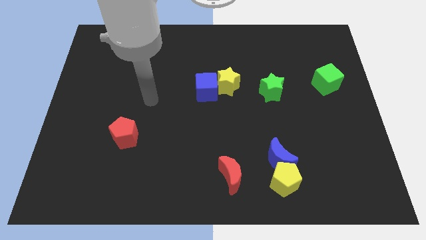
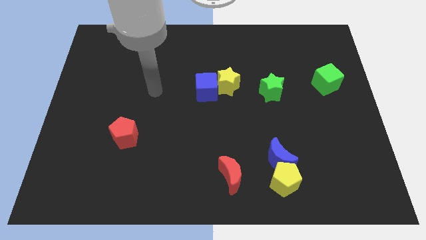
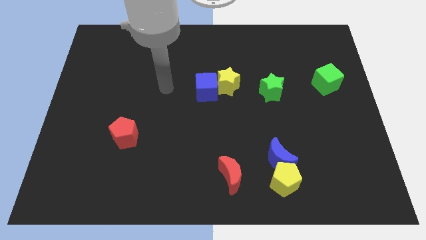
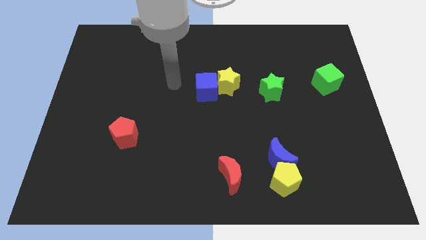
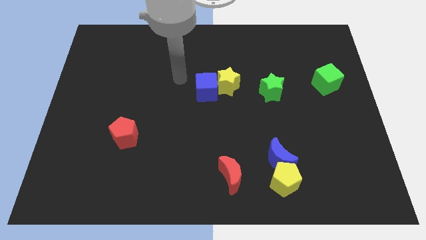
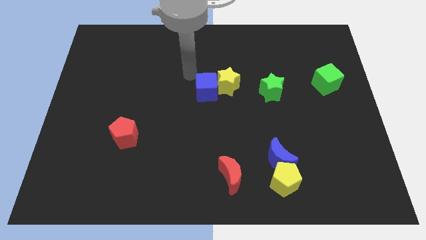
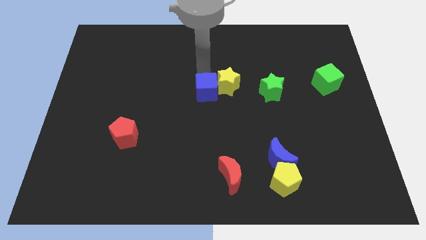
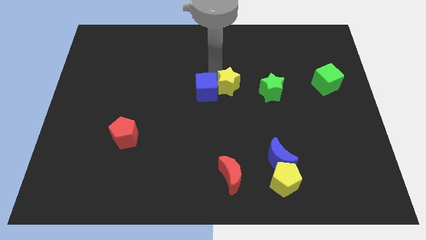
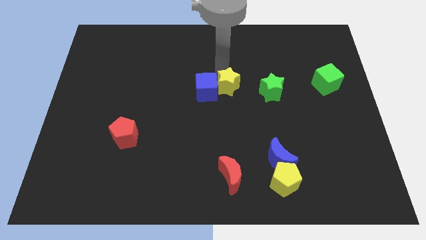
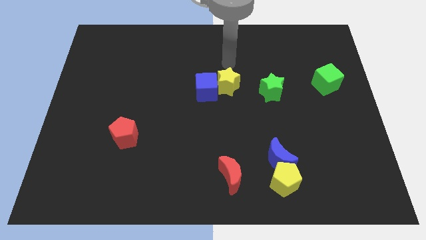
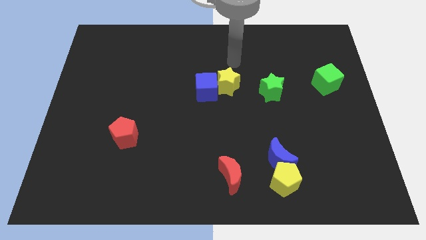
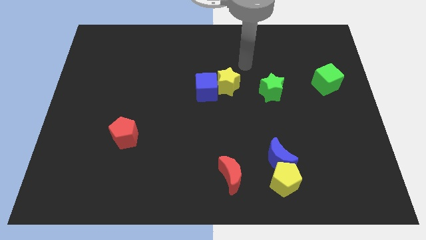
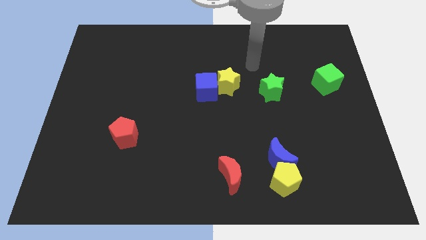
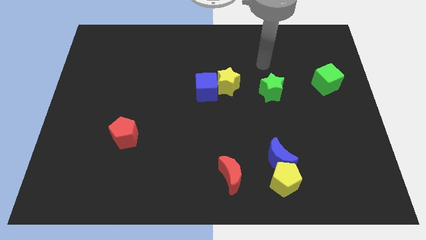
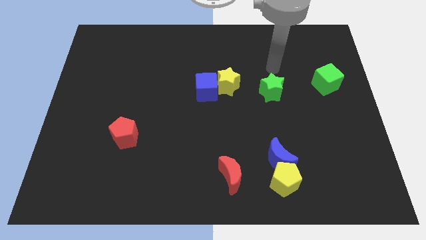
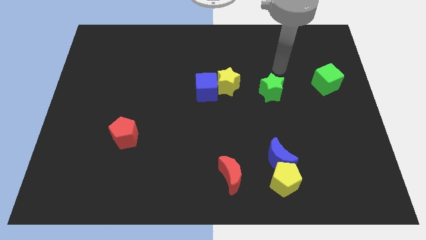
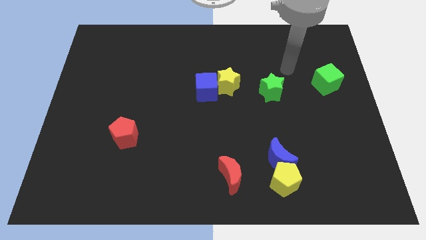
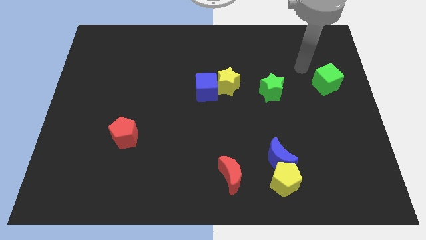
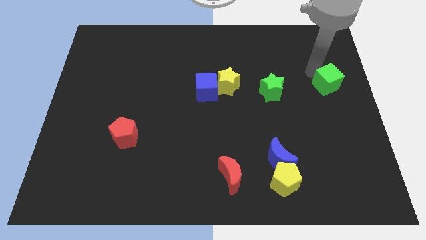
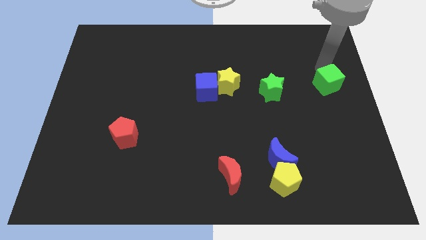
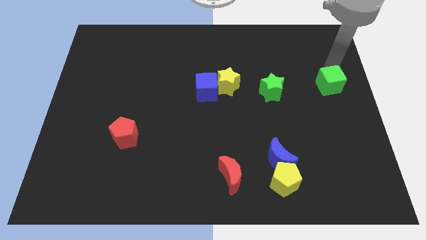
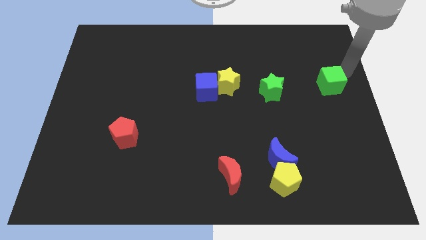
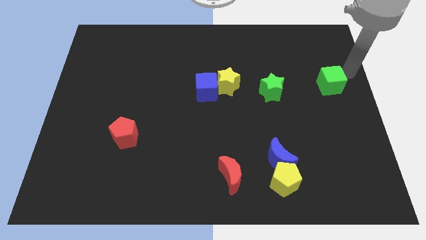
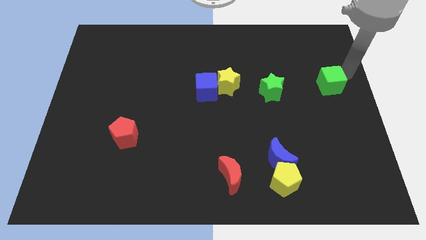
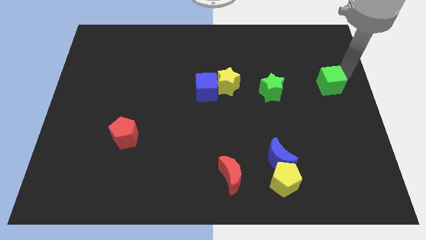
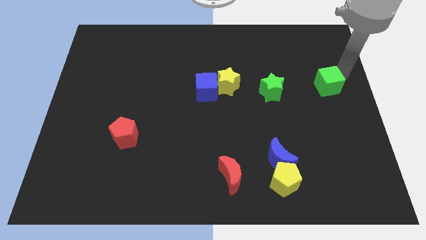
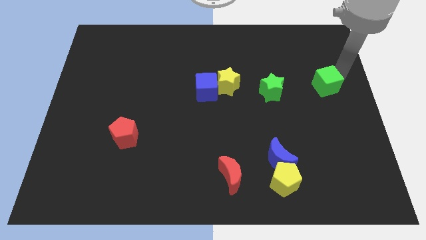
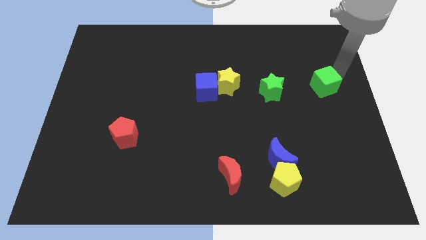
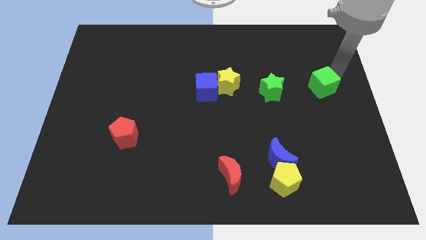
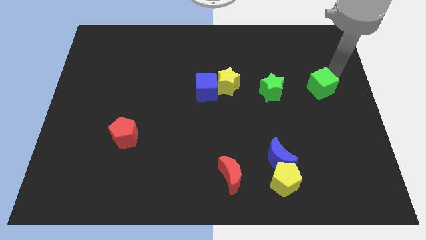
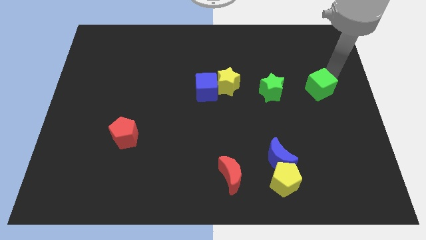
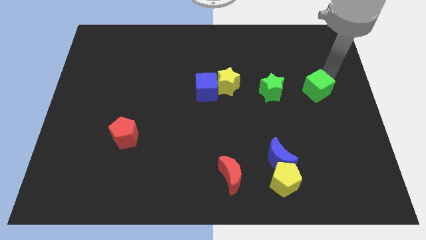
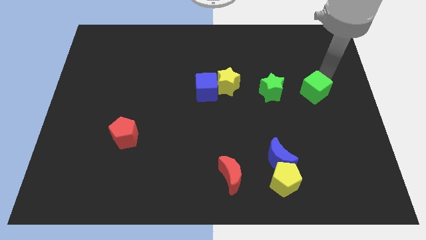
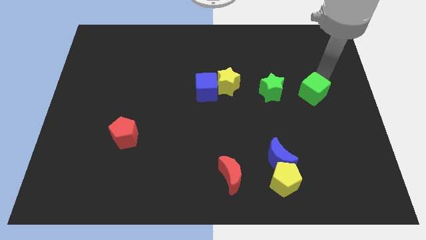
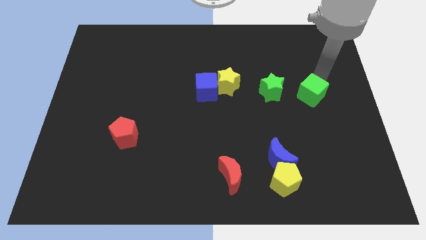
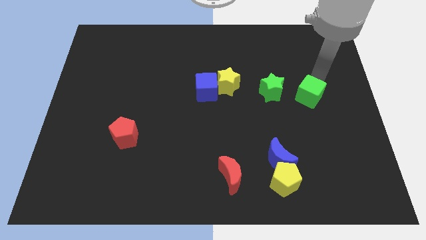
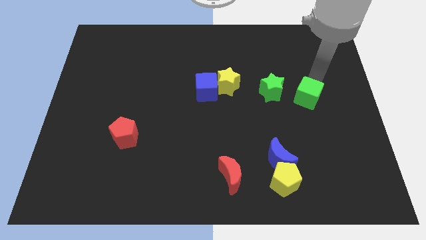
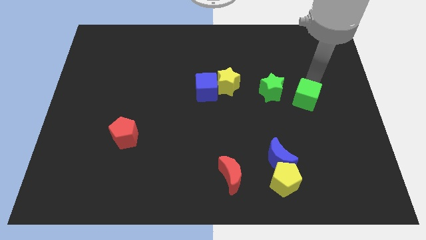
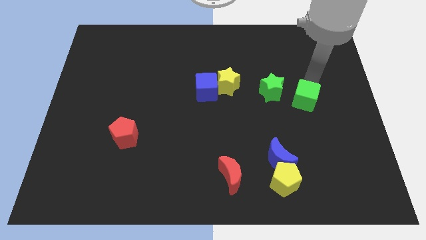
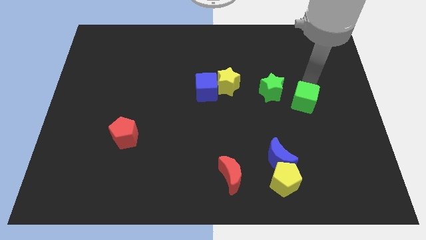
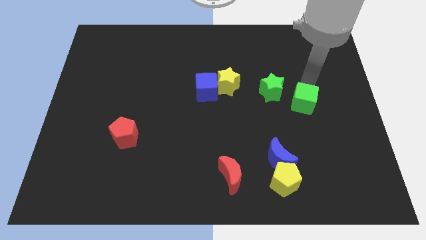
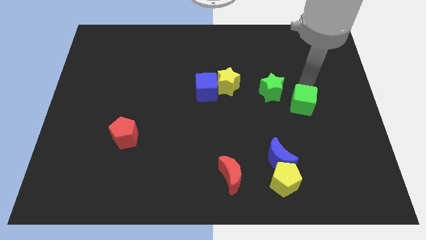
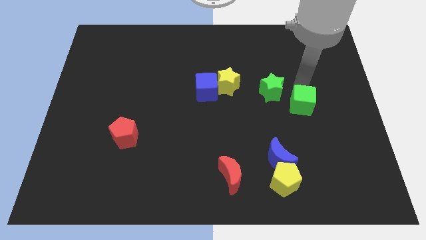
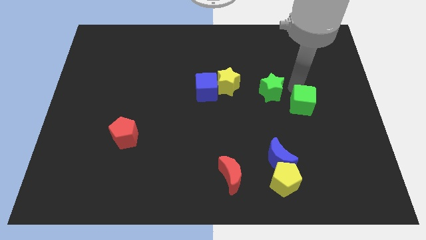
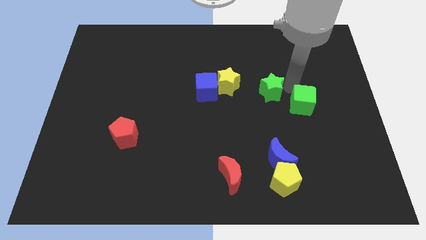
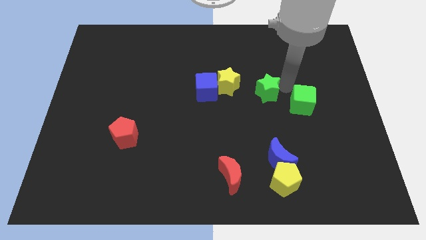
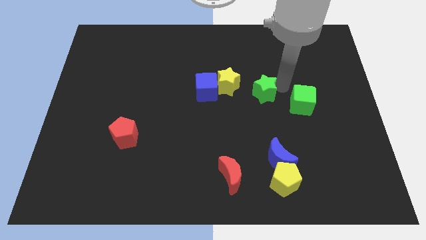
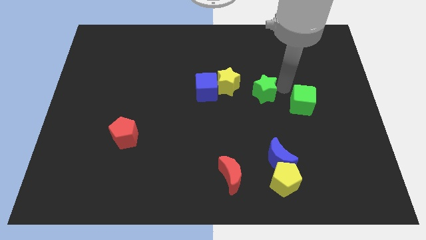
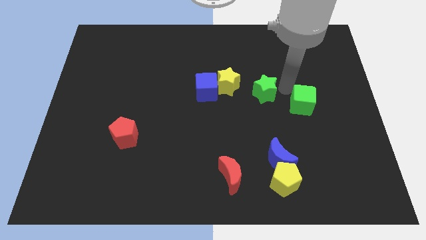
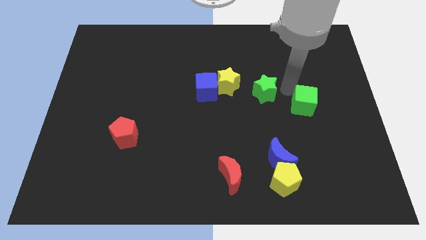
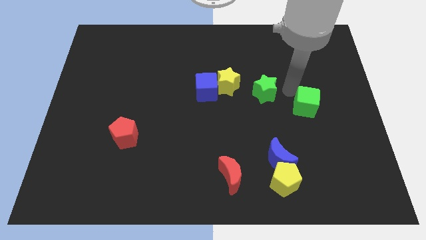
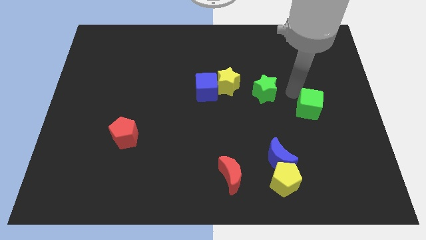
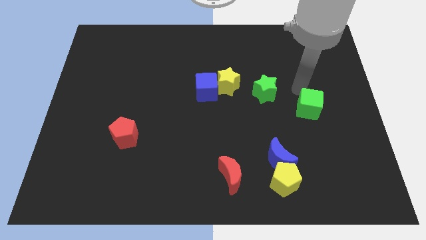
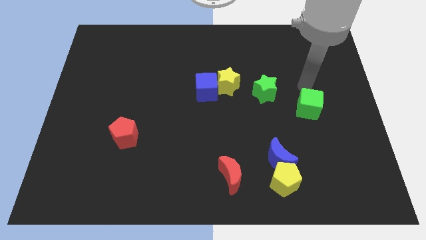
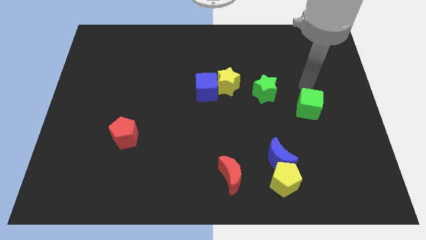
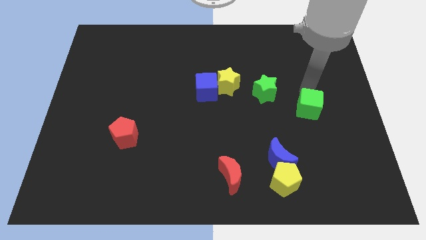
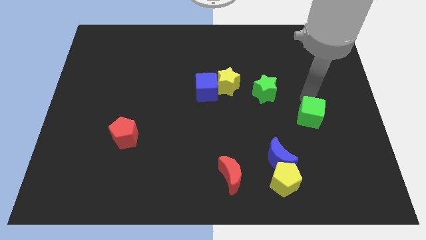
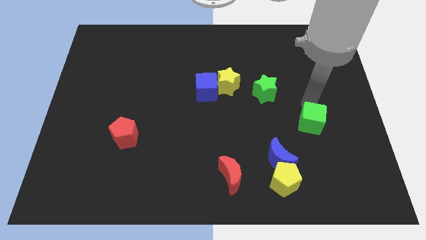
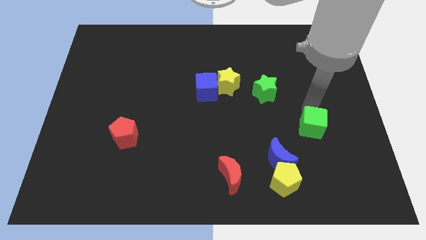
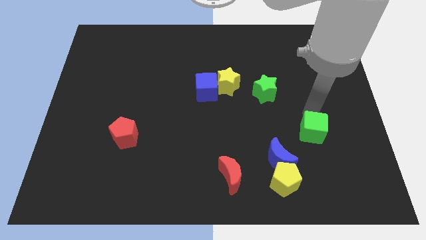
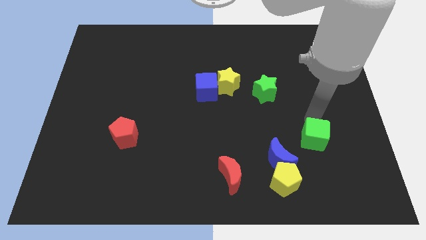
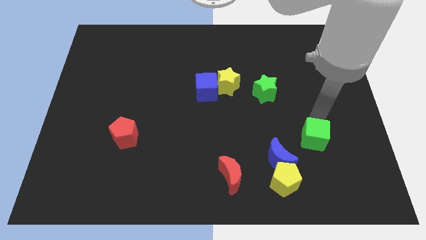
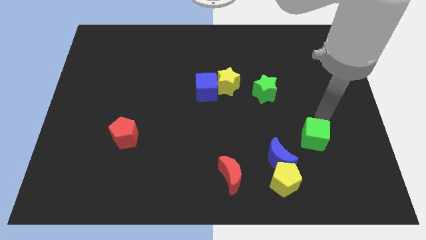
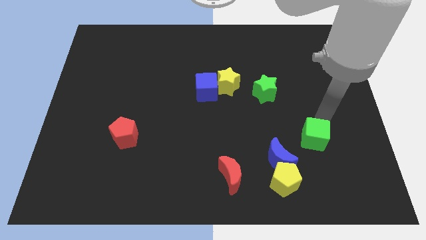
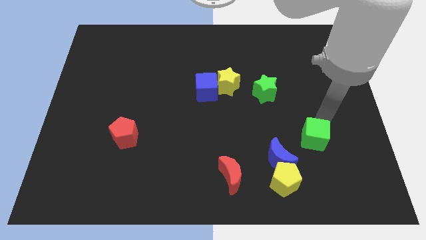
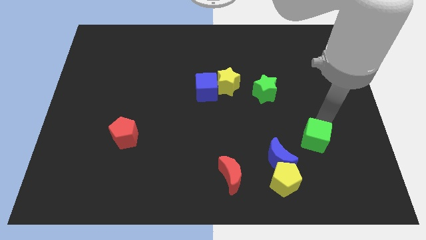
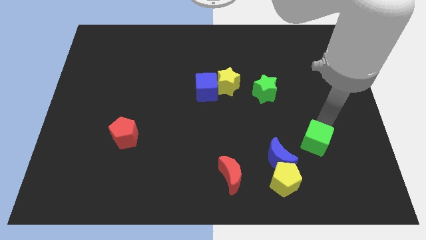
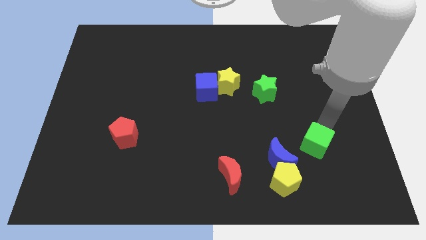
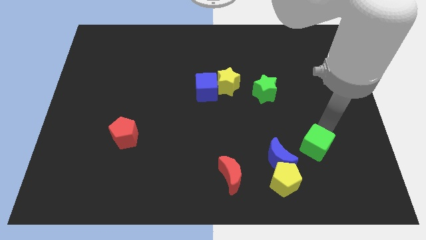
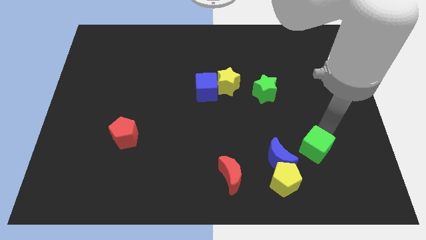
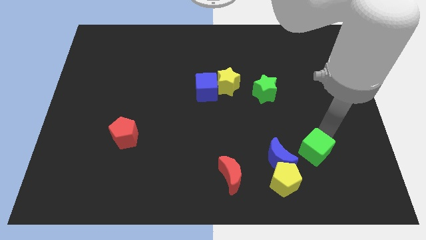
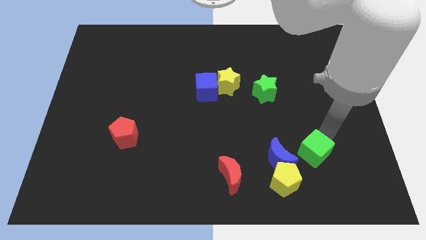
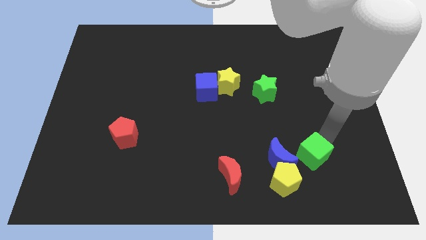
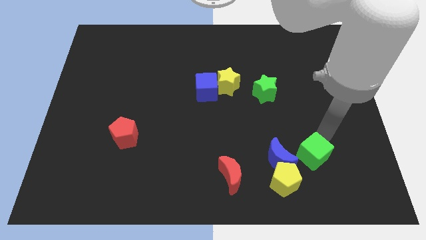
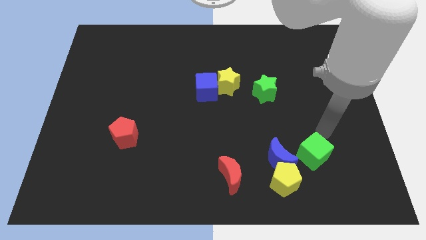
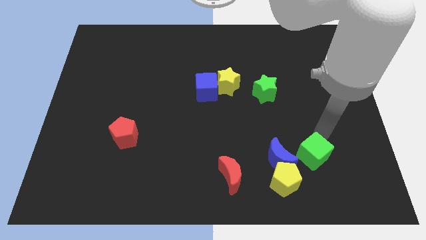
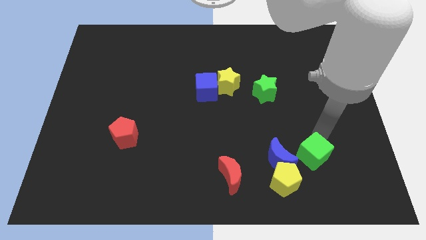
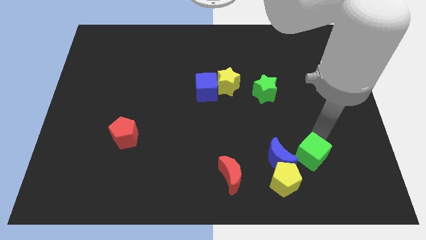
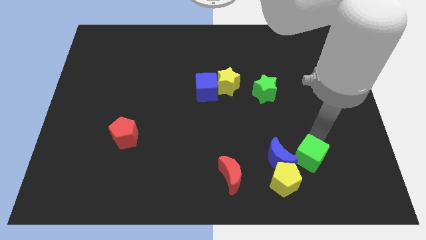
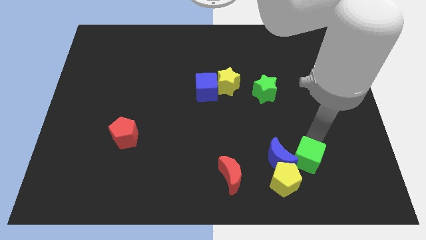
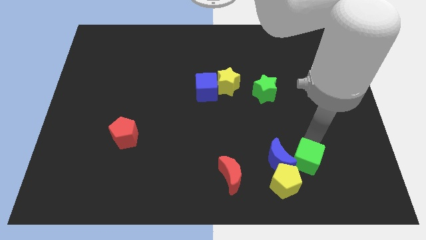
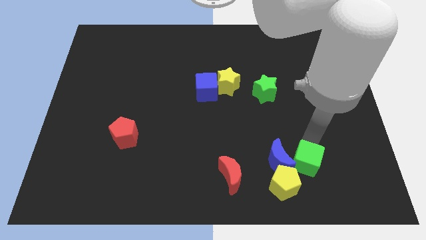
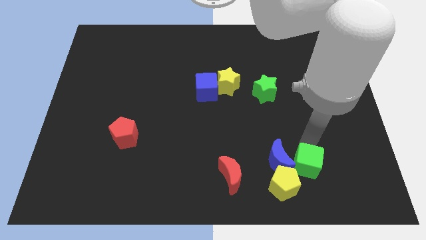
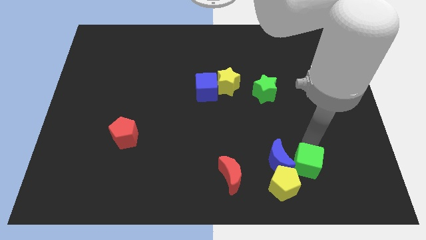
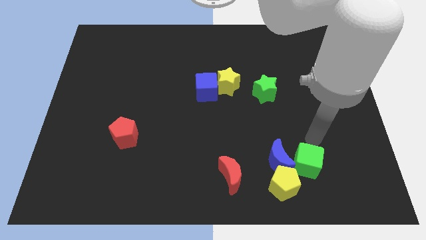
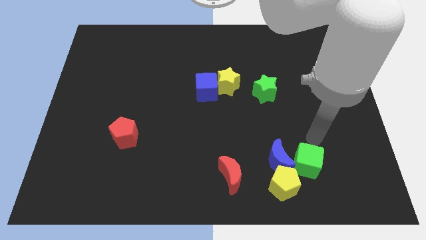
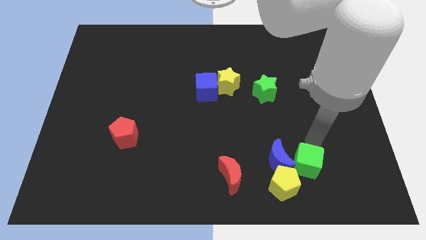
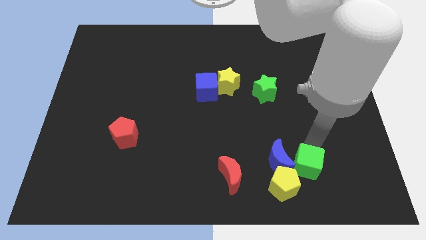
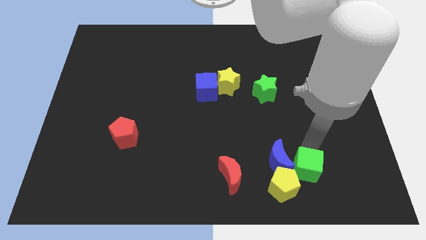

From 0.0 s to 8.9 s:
slide the green cube to the right of the red moon
